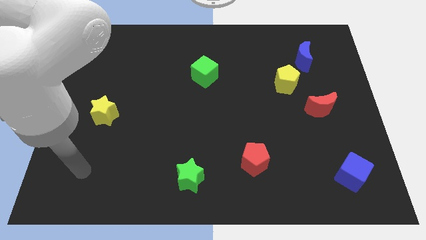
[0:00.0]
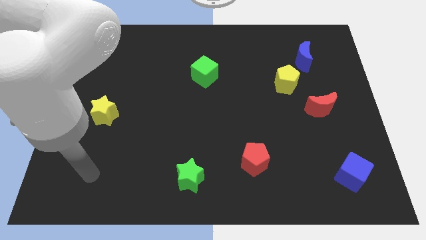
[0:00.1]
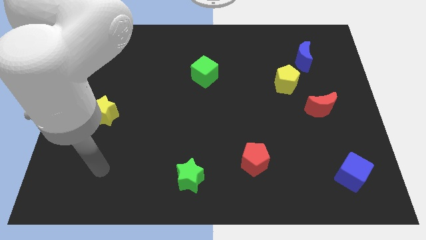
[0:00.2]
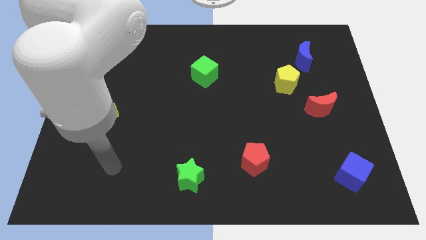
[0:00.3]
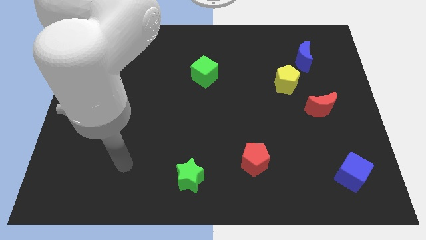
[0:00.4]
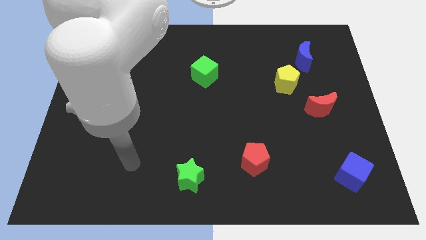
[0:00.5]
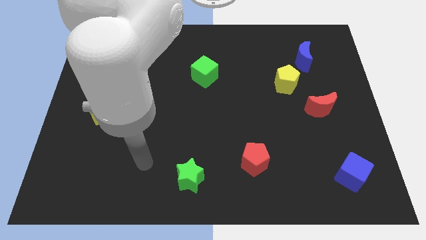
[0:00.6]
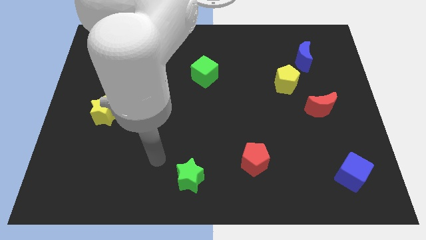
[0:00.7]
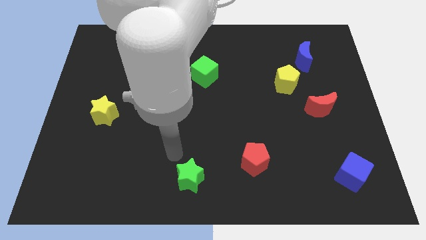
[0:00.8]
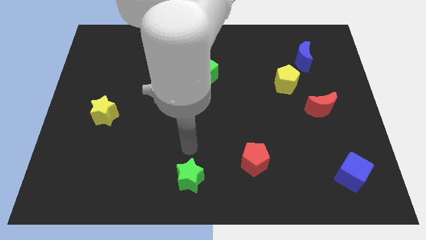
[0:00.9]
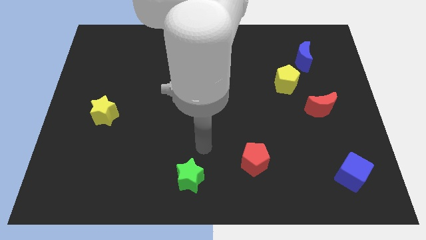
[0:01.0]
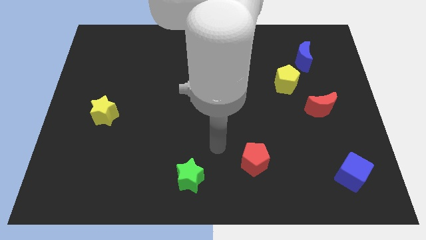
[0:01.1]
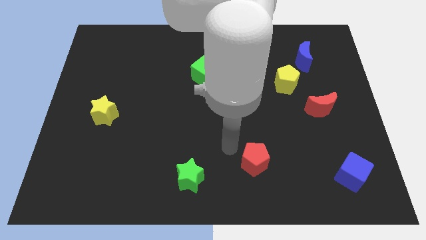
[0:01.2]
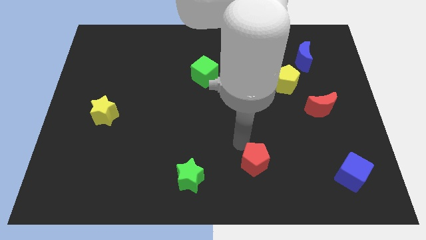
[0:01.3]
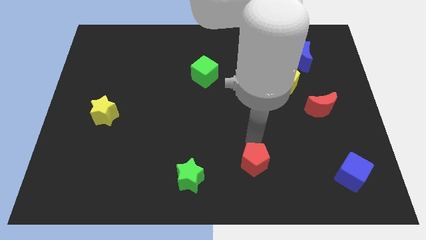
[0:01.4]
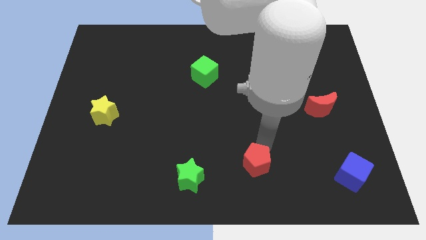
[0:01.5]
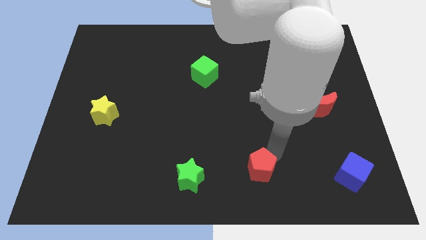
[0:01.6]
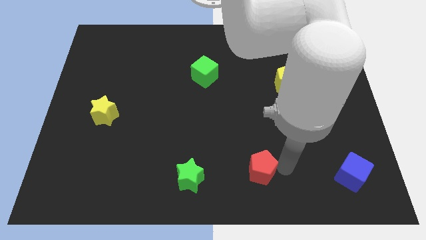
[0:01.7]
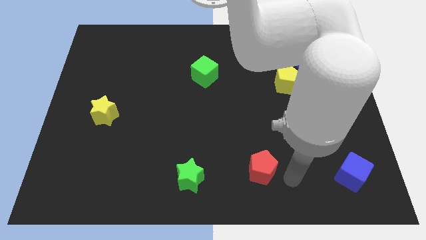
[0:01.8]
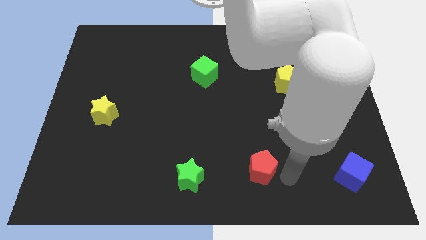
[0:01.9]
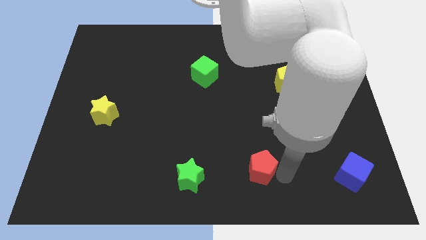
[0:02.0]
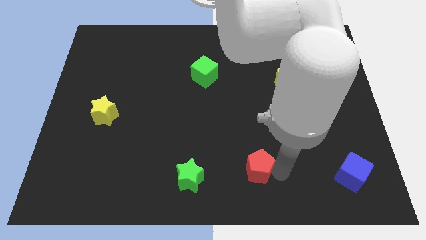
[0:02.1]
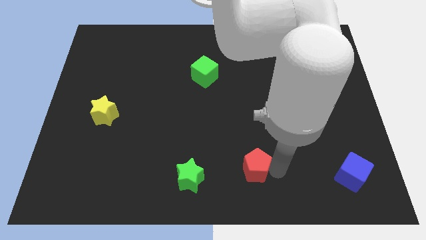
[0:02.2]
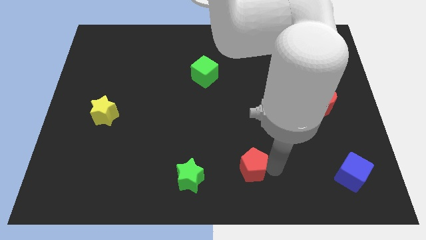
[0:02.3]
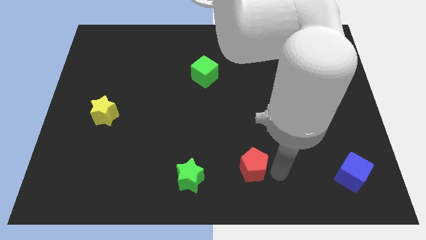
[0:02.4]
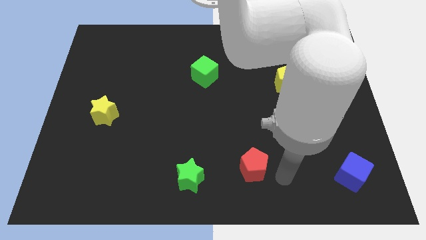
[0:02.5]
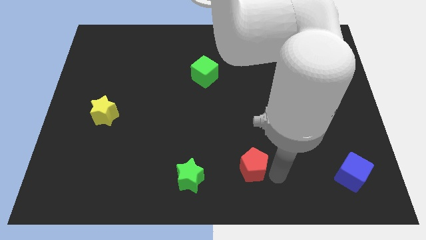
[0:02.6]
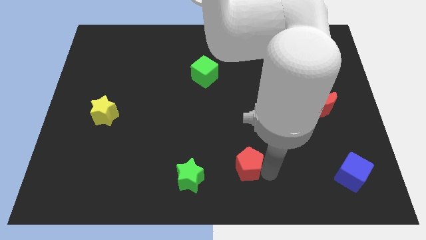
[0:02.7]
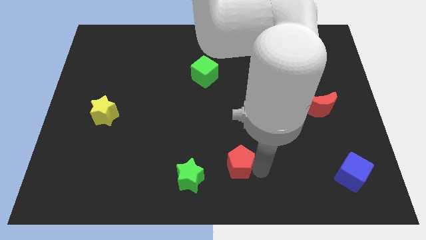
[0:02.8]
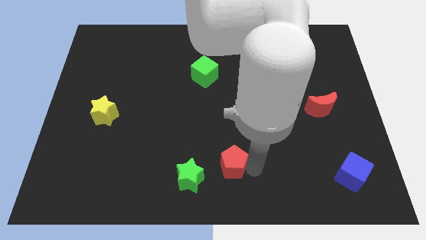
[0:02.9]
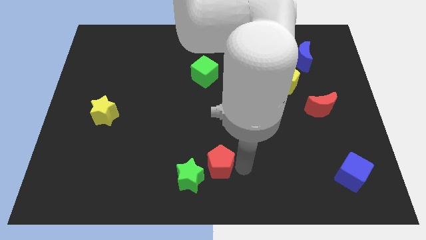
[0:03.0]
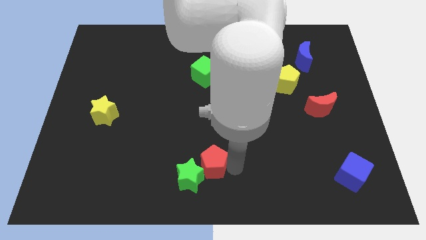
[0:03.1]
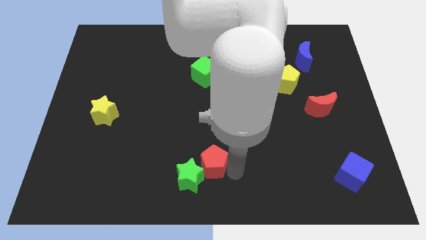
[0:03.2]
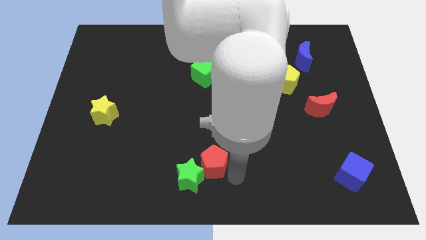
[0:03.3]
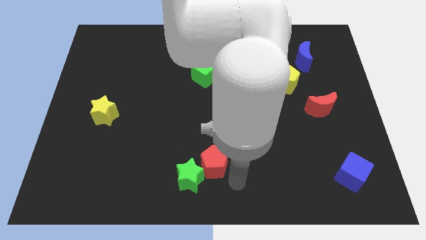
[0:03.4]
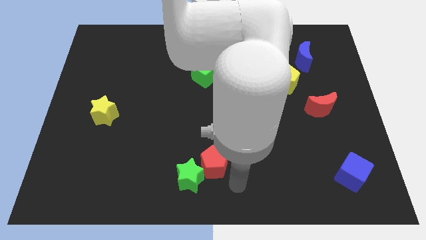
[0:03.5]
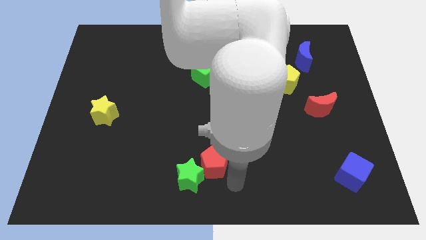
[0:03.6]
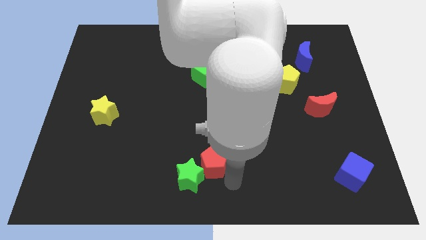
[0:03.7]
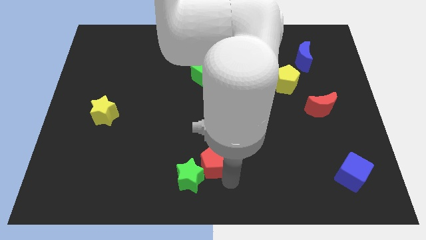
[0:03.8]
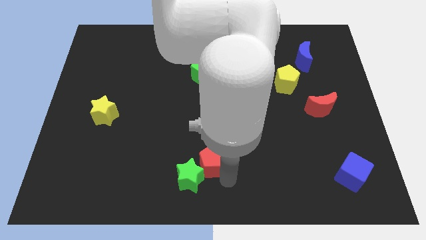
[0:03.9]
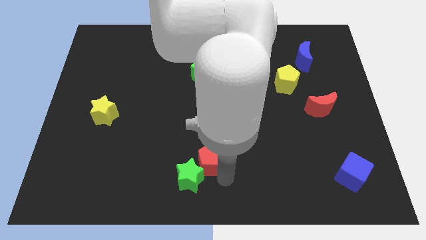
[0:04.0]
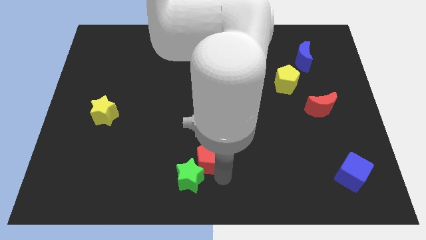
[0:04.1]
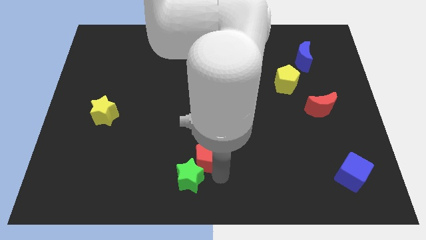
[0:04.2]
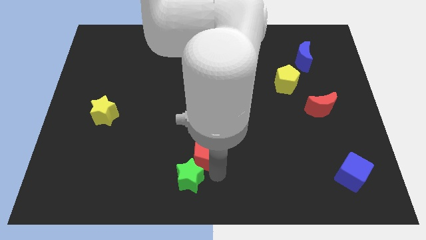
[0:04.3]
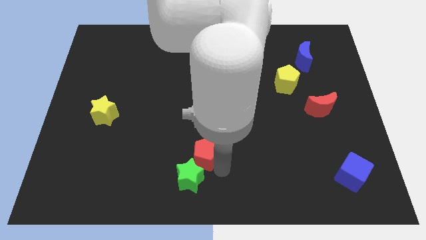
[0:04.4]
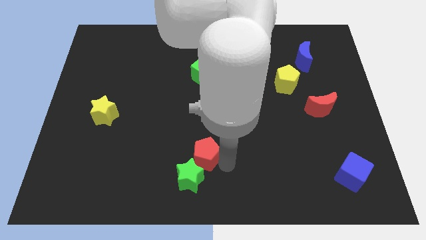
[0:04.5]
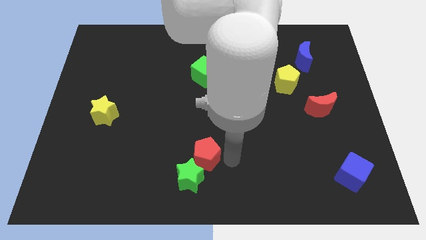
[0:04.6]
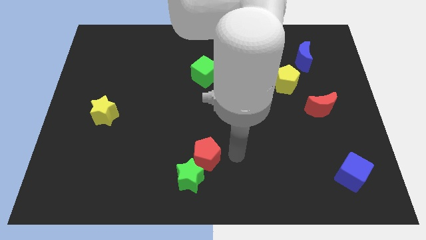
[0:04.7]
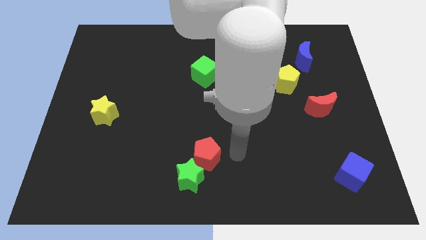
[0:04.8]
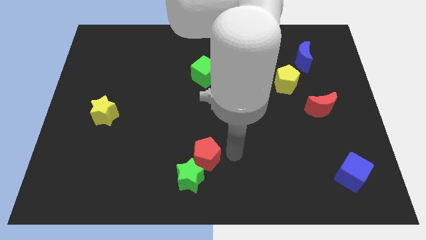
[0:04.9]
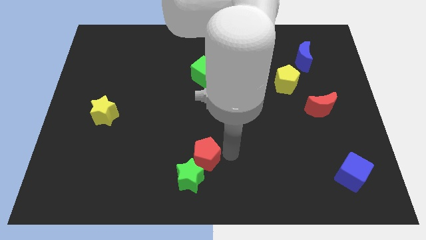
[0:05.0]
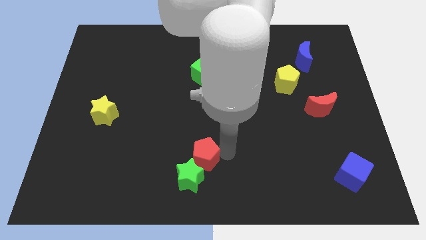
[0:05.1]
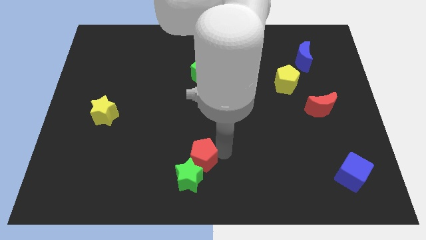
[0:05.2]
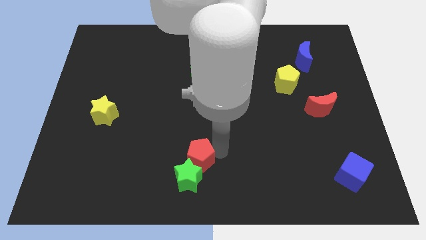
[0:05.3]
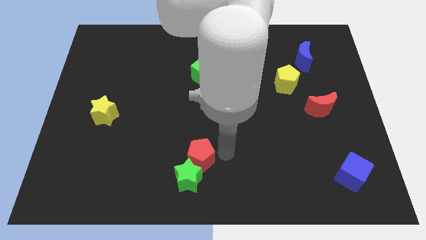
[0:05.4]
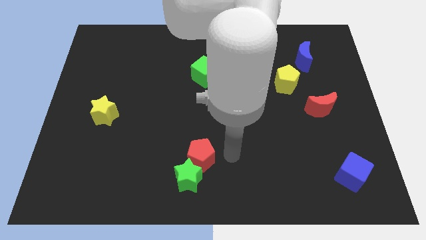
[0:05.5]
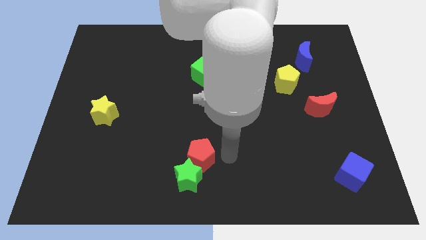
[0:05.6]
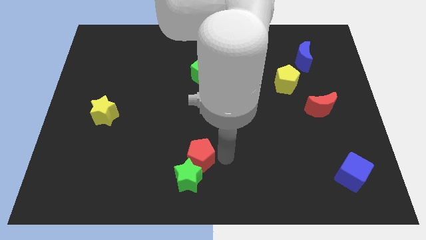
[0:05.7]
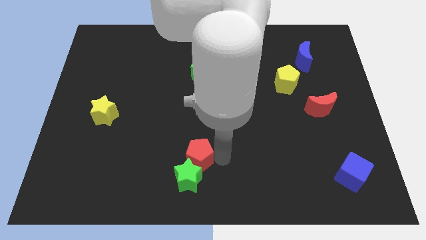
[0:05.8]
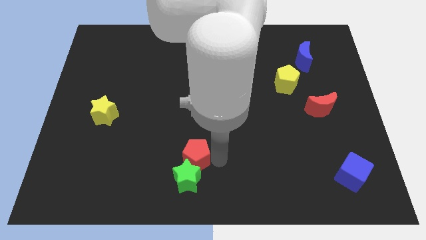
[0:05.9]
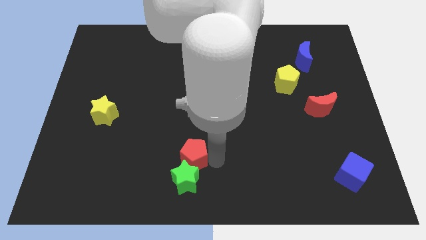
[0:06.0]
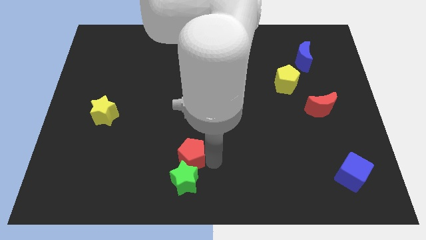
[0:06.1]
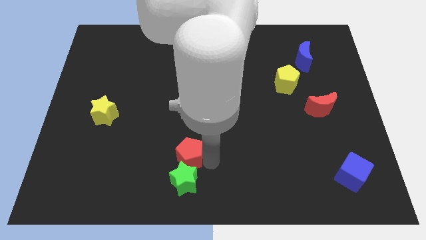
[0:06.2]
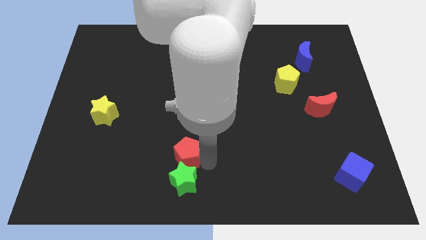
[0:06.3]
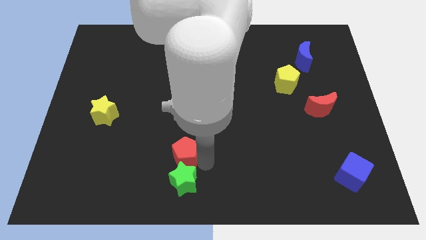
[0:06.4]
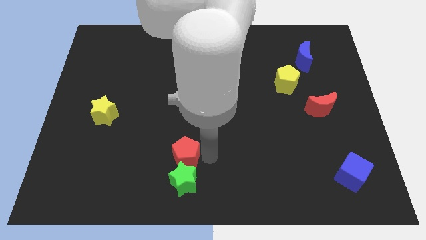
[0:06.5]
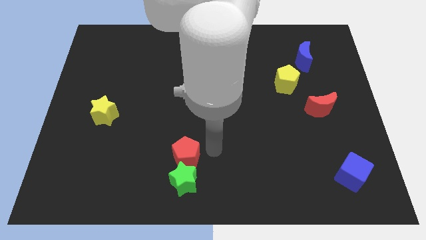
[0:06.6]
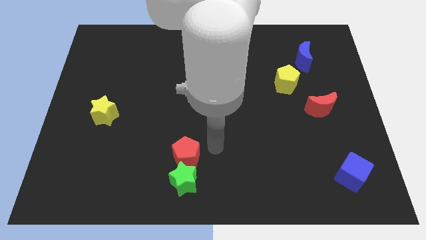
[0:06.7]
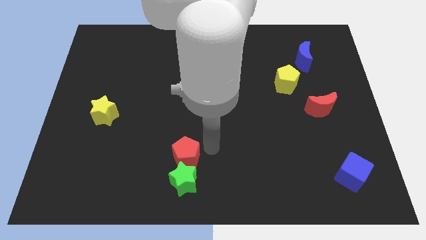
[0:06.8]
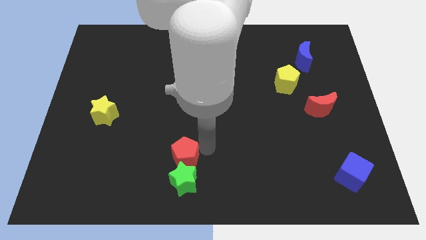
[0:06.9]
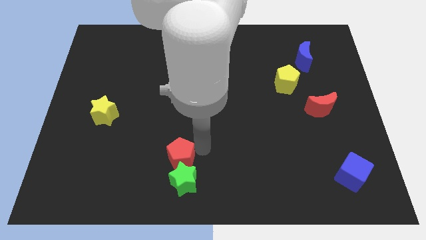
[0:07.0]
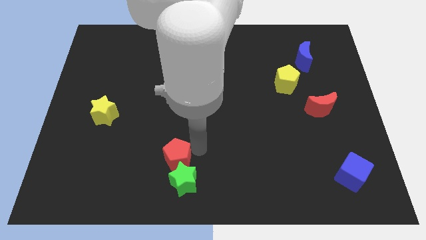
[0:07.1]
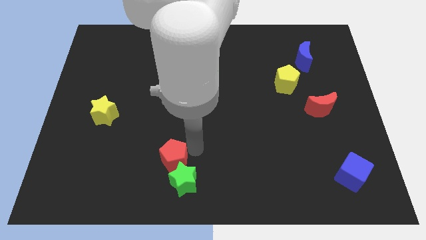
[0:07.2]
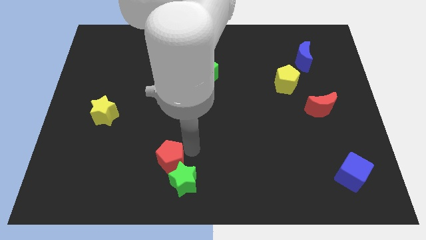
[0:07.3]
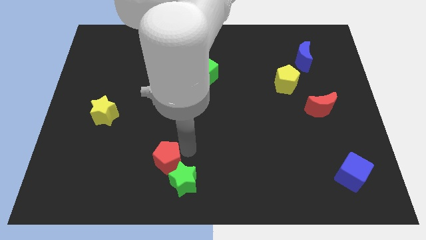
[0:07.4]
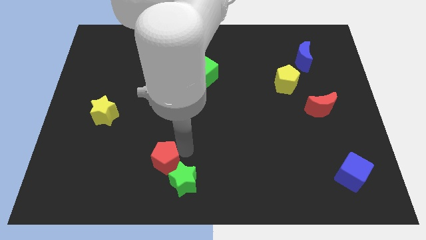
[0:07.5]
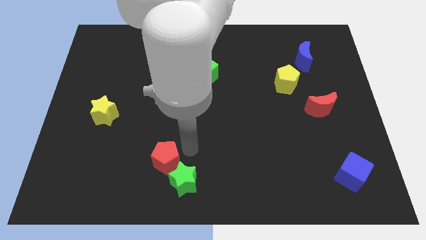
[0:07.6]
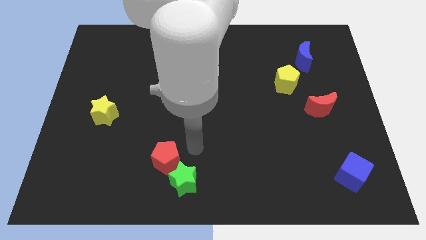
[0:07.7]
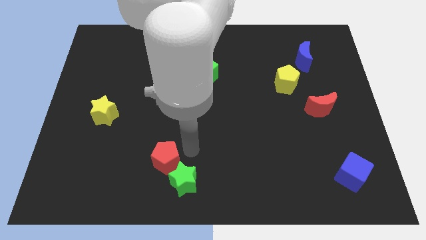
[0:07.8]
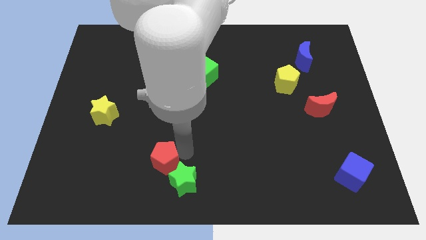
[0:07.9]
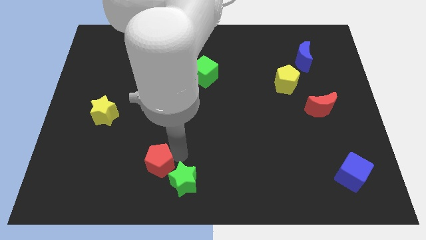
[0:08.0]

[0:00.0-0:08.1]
move the red pentagon to the left

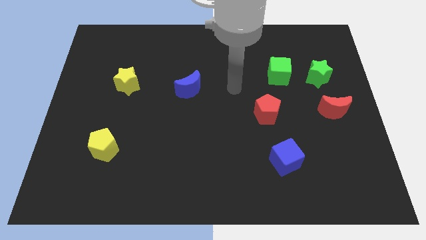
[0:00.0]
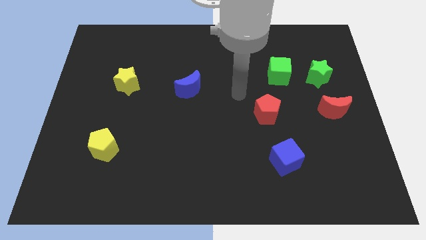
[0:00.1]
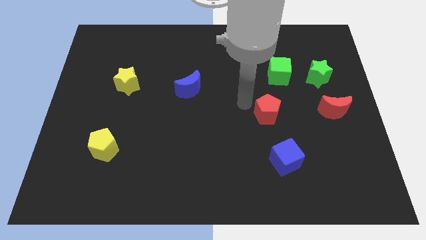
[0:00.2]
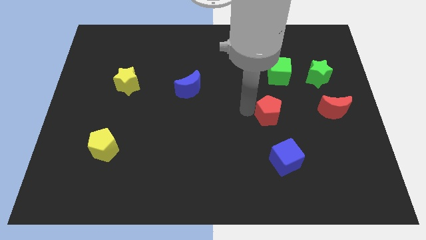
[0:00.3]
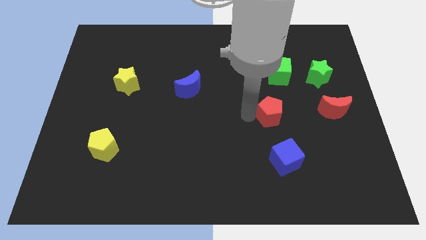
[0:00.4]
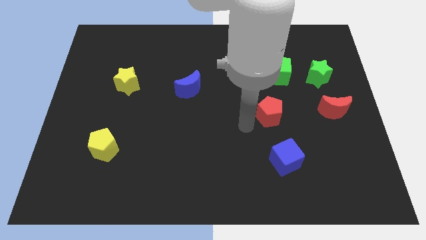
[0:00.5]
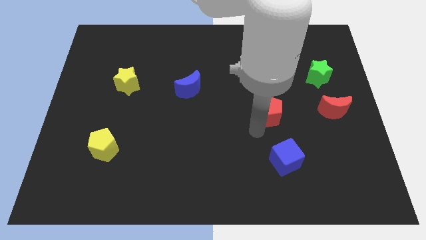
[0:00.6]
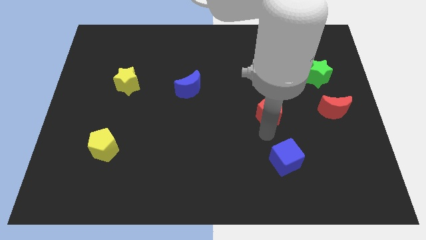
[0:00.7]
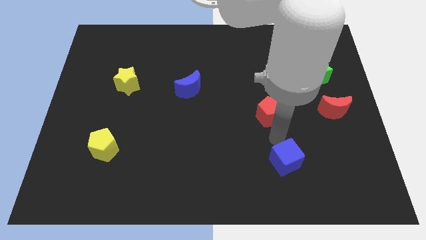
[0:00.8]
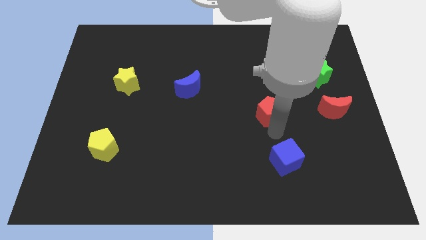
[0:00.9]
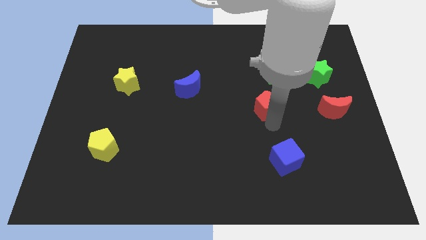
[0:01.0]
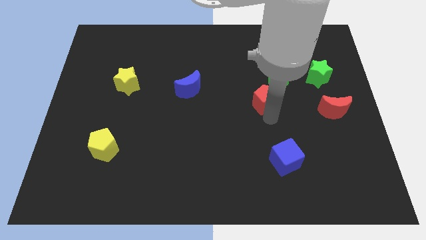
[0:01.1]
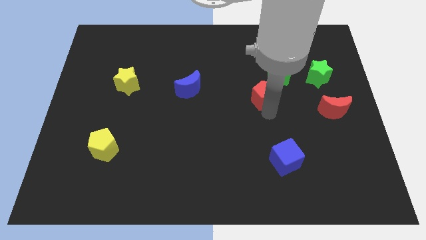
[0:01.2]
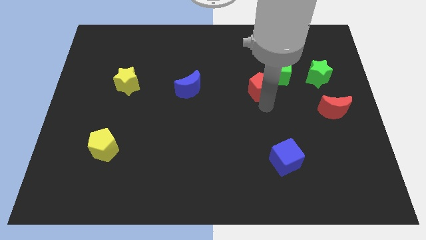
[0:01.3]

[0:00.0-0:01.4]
push the red pentagon a bit up
